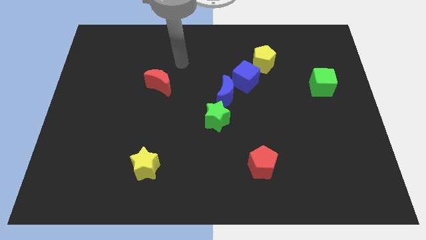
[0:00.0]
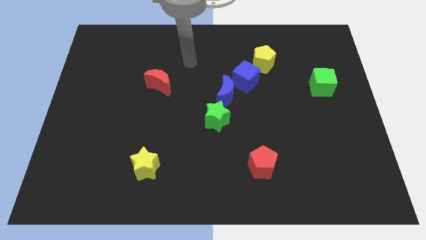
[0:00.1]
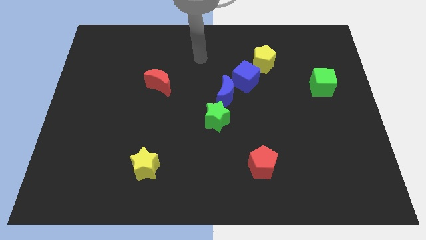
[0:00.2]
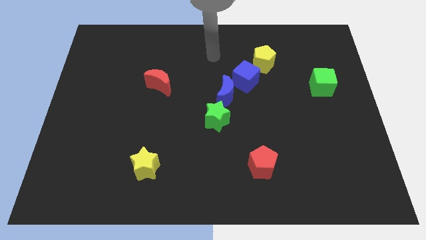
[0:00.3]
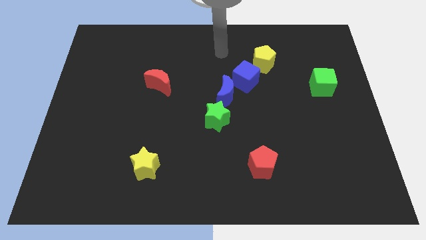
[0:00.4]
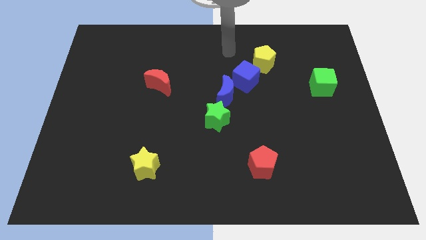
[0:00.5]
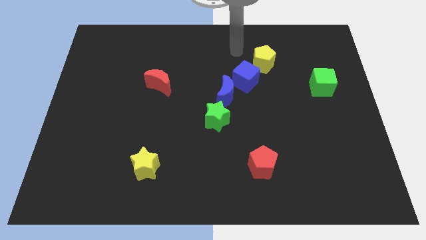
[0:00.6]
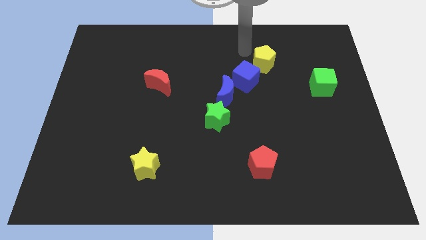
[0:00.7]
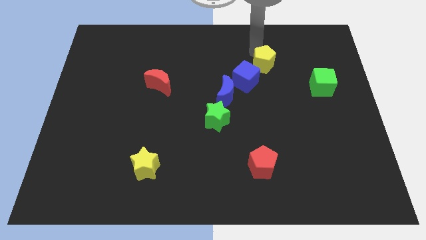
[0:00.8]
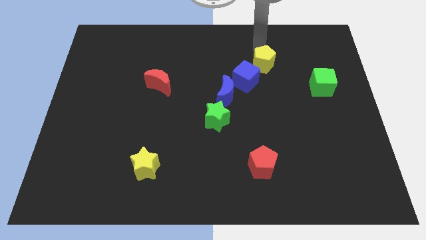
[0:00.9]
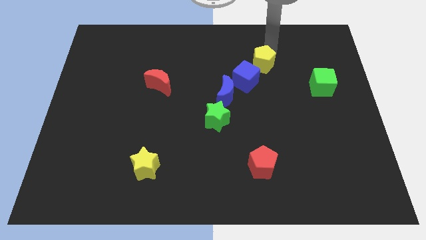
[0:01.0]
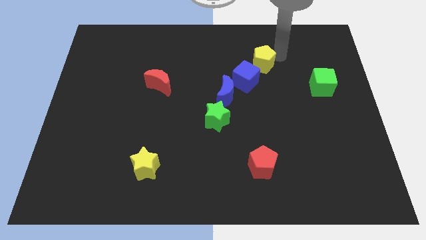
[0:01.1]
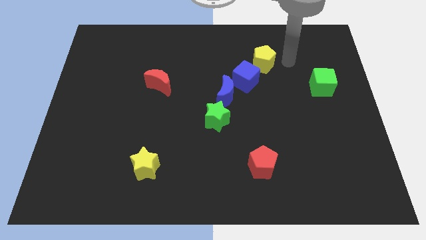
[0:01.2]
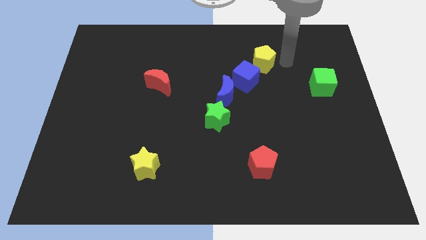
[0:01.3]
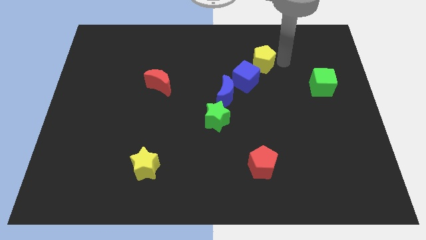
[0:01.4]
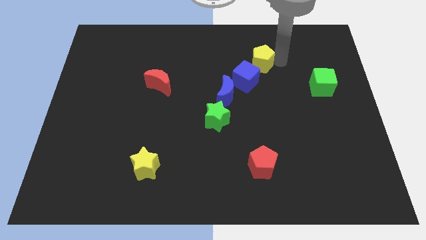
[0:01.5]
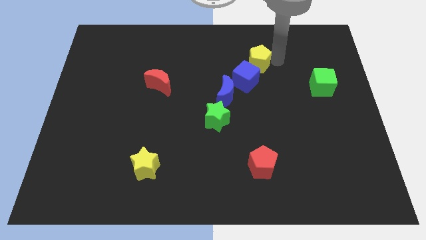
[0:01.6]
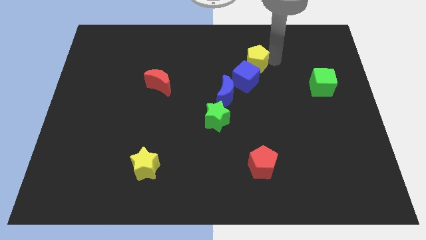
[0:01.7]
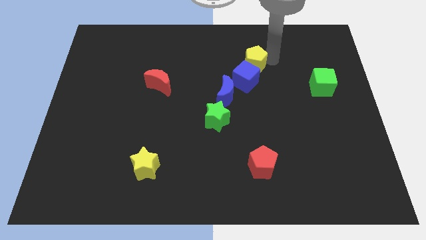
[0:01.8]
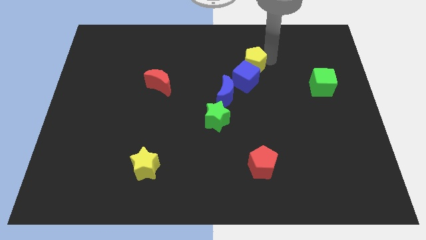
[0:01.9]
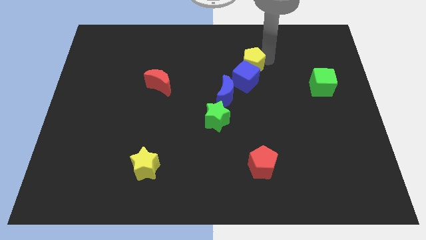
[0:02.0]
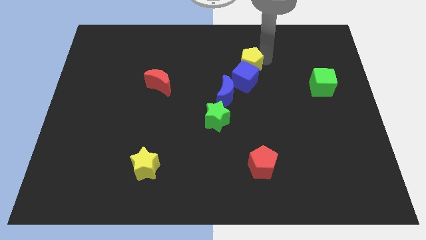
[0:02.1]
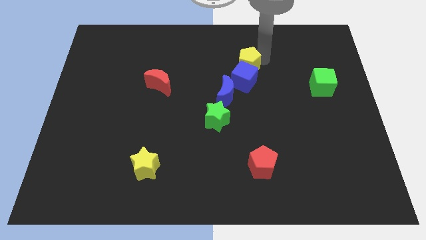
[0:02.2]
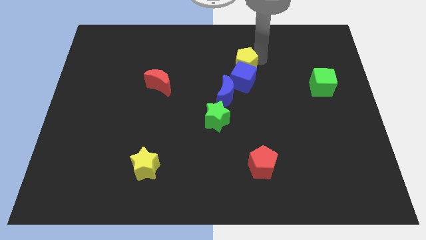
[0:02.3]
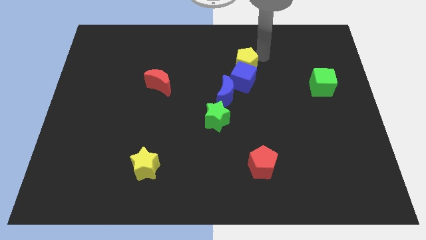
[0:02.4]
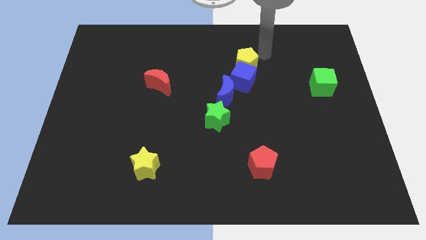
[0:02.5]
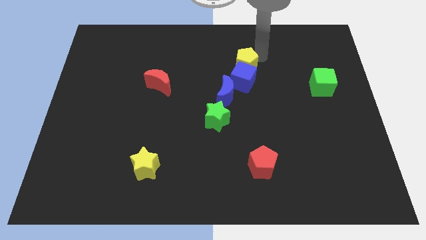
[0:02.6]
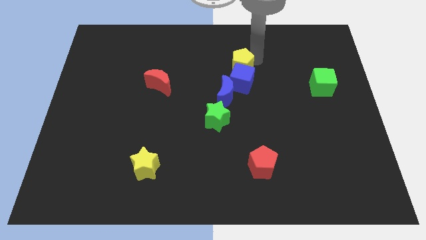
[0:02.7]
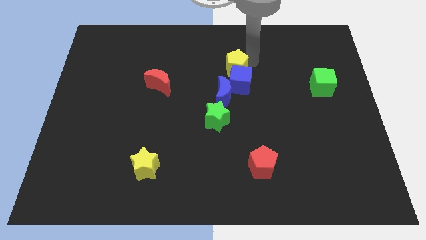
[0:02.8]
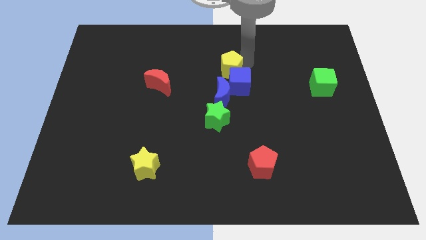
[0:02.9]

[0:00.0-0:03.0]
push the yellow pentagon somewhat diagonally down and to the left

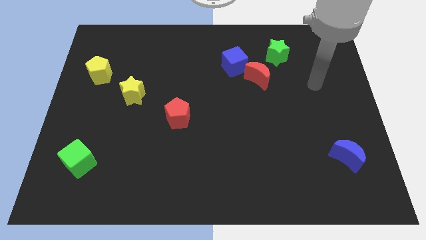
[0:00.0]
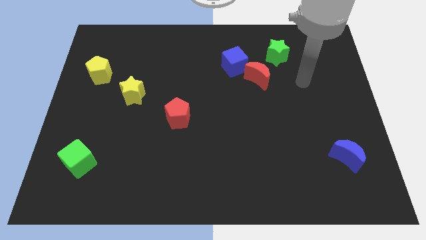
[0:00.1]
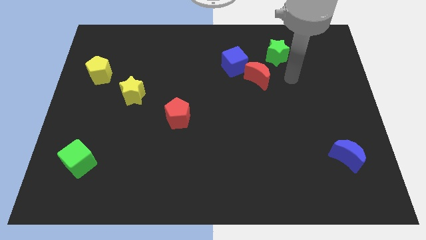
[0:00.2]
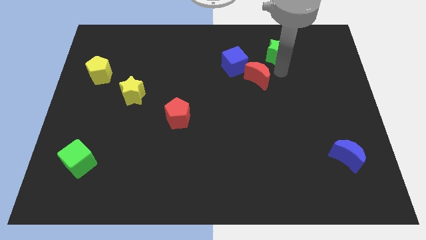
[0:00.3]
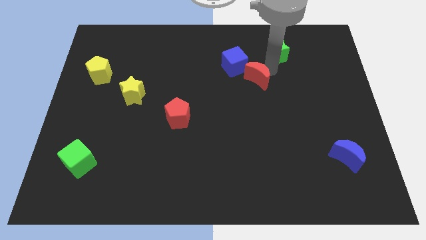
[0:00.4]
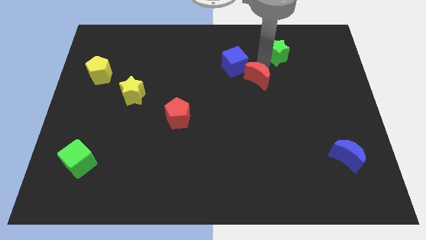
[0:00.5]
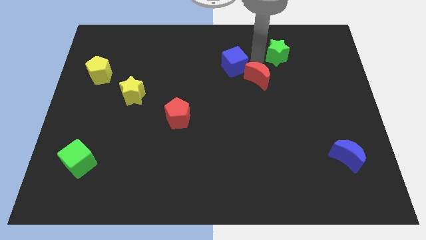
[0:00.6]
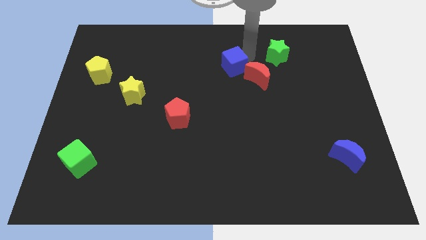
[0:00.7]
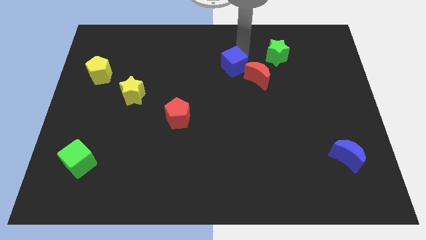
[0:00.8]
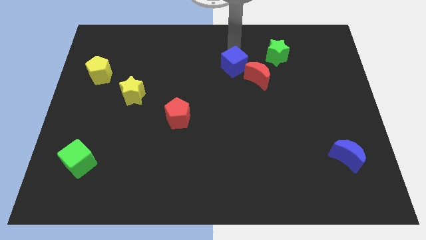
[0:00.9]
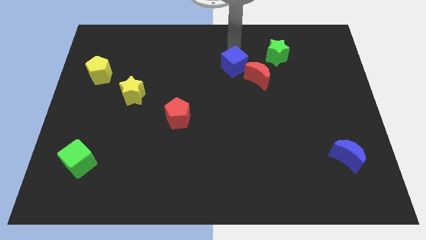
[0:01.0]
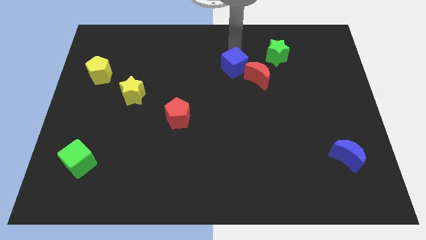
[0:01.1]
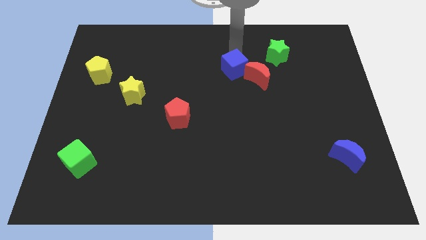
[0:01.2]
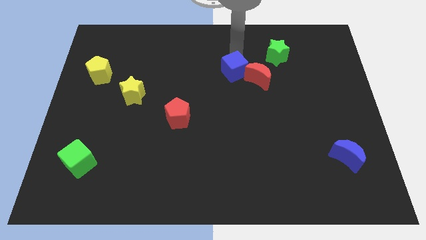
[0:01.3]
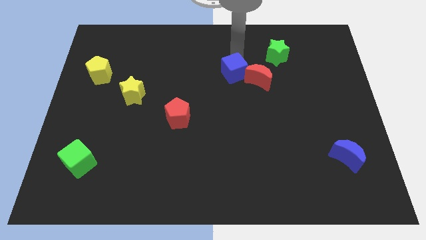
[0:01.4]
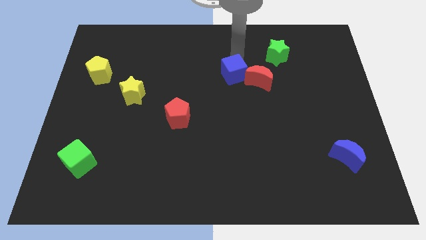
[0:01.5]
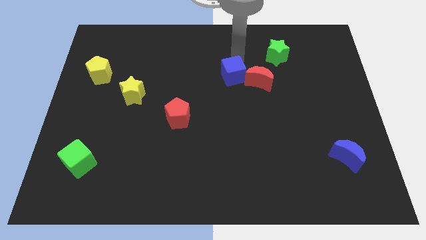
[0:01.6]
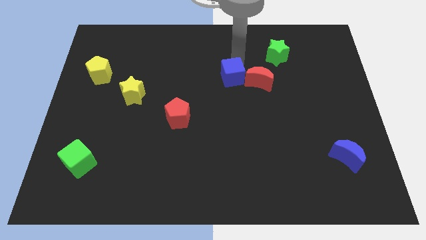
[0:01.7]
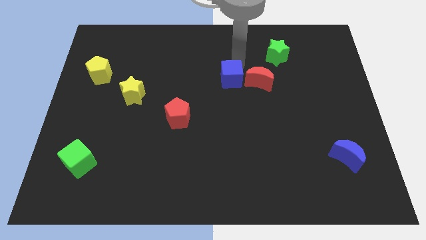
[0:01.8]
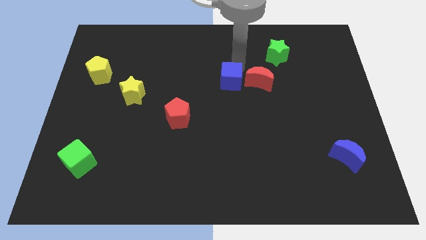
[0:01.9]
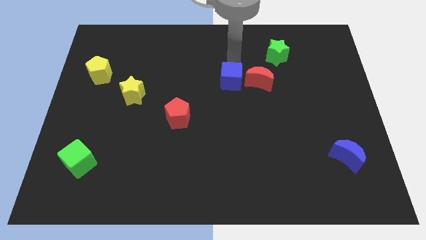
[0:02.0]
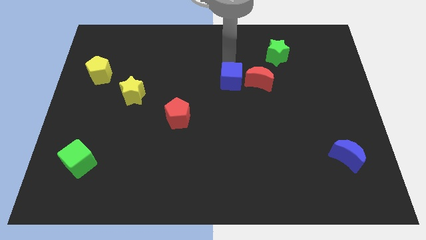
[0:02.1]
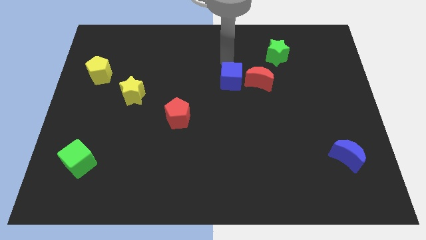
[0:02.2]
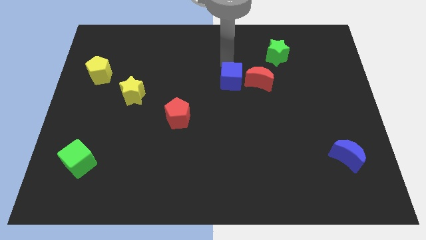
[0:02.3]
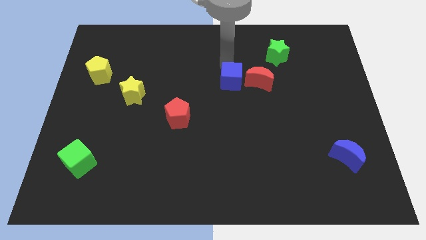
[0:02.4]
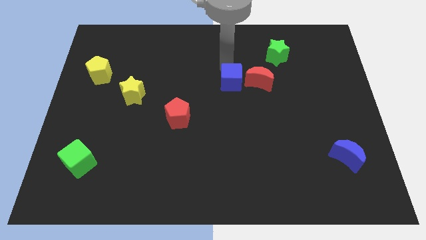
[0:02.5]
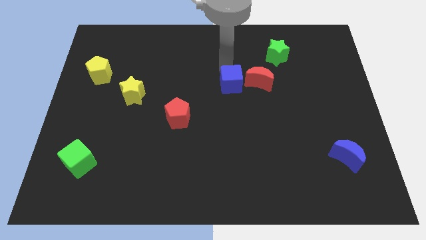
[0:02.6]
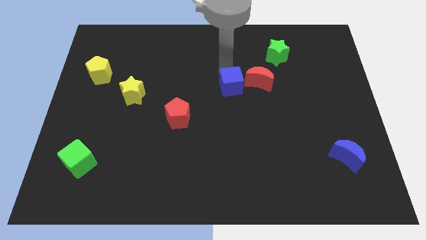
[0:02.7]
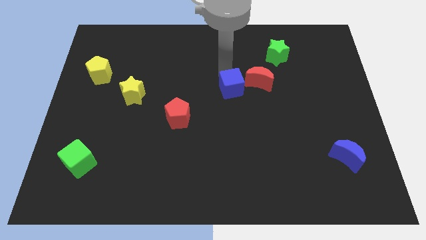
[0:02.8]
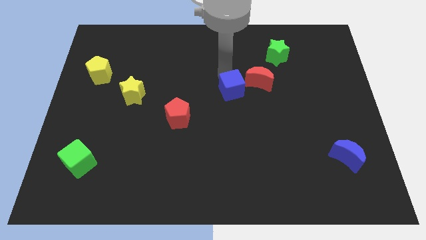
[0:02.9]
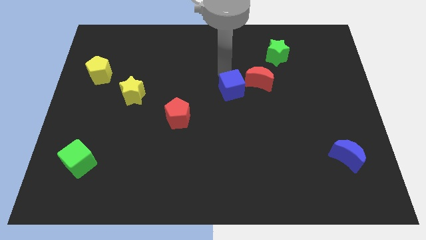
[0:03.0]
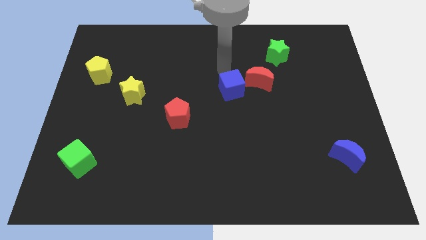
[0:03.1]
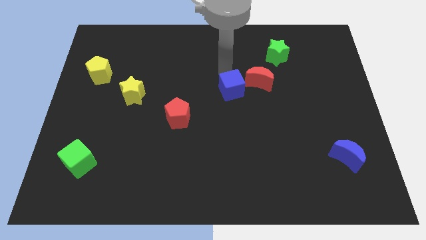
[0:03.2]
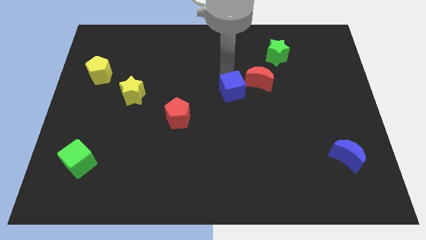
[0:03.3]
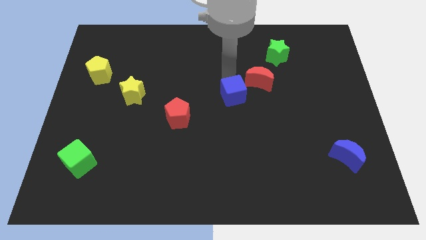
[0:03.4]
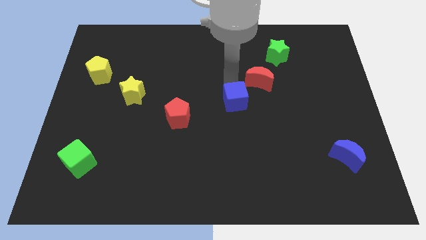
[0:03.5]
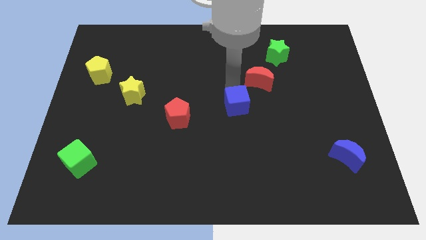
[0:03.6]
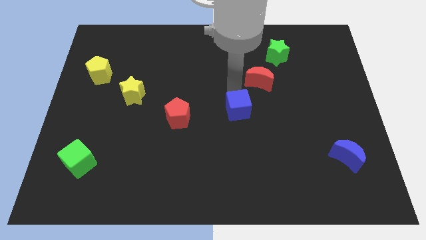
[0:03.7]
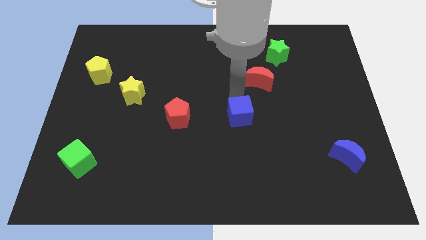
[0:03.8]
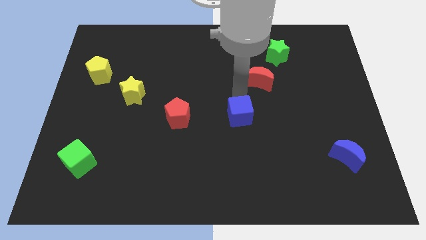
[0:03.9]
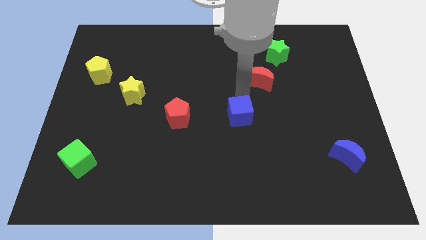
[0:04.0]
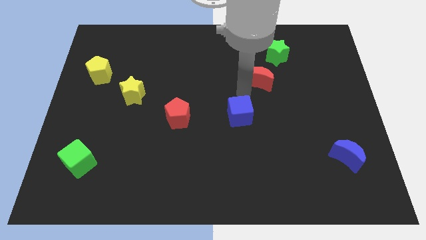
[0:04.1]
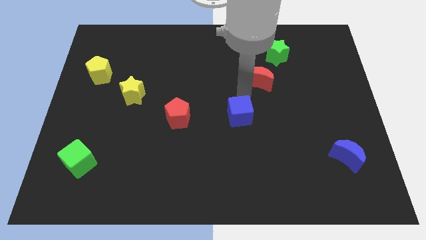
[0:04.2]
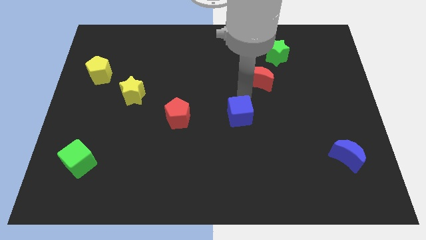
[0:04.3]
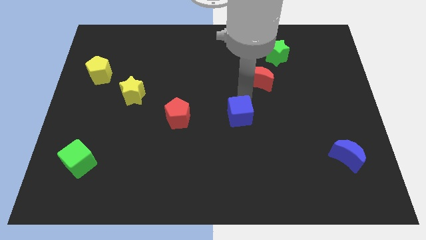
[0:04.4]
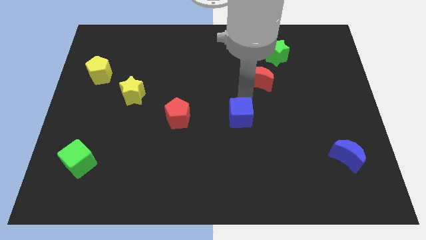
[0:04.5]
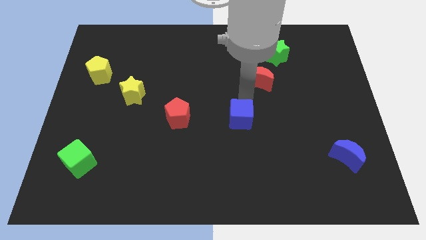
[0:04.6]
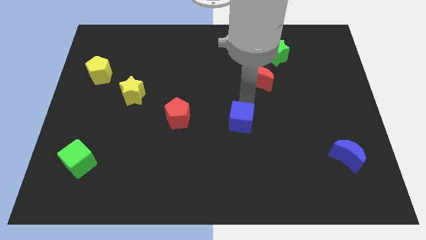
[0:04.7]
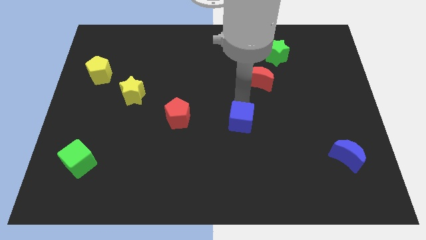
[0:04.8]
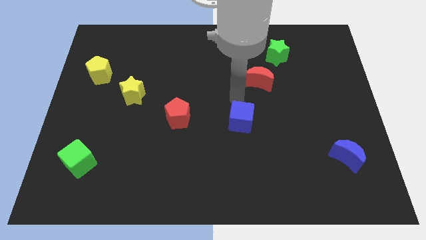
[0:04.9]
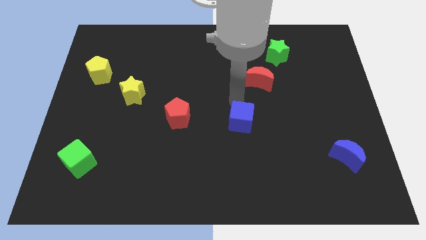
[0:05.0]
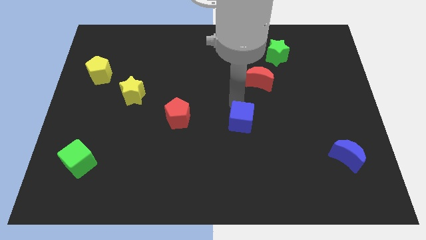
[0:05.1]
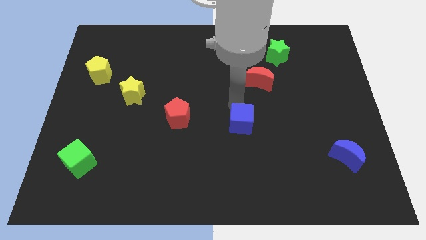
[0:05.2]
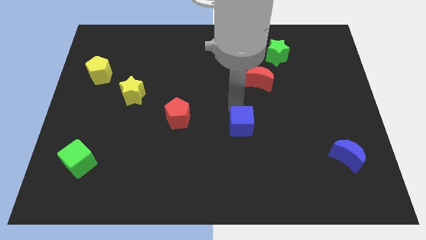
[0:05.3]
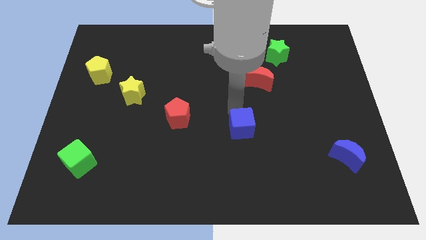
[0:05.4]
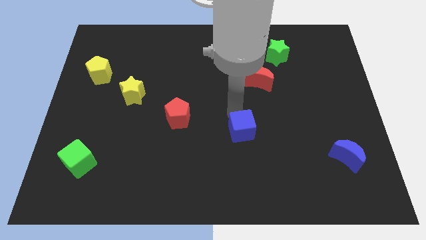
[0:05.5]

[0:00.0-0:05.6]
push the blue cube down
